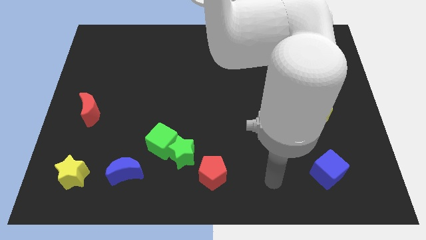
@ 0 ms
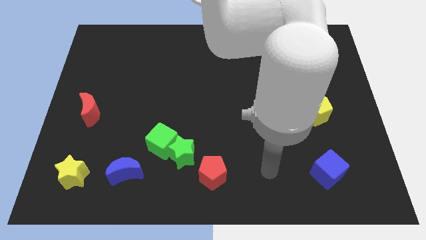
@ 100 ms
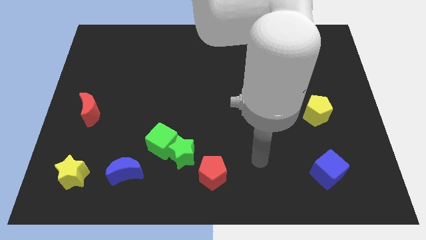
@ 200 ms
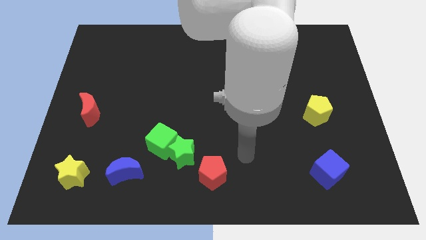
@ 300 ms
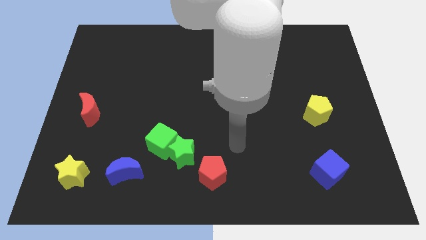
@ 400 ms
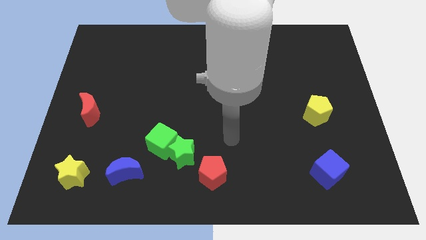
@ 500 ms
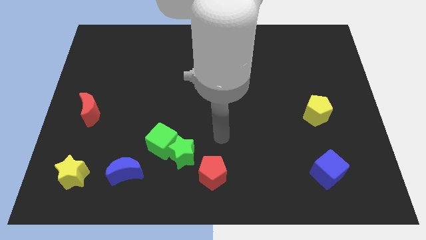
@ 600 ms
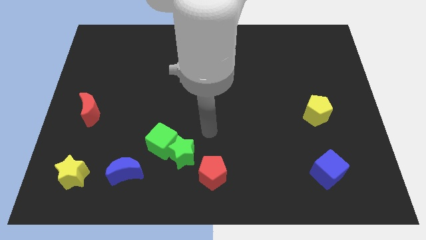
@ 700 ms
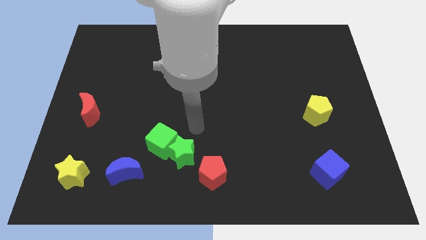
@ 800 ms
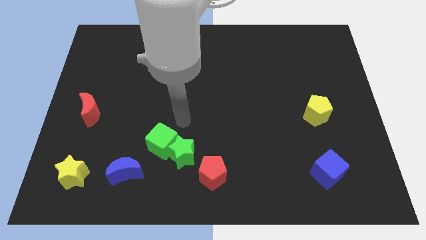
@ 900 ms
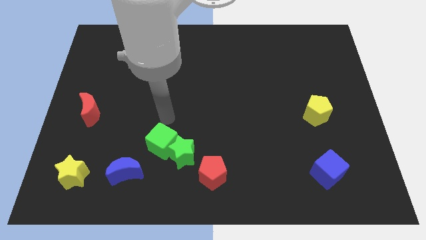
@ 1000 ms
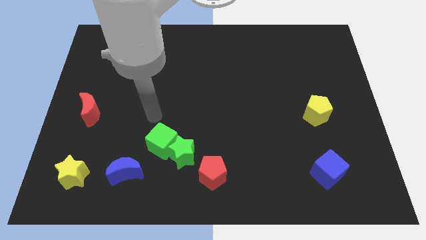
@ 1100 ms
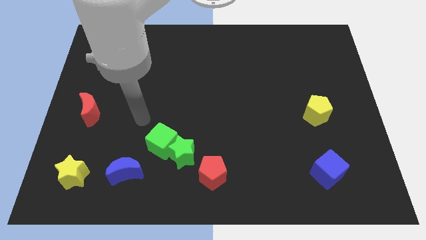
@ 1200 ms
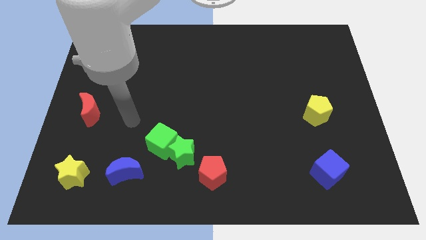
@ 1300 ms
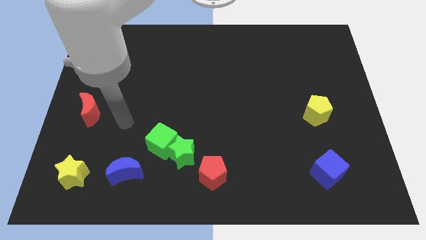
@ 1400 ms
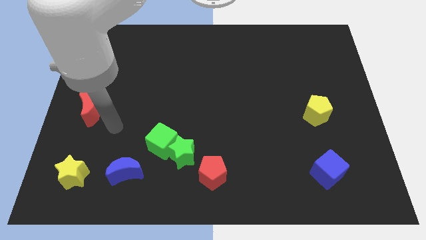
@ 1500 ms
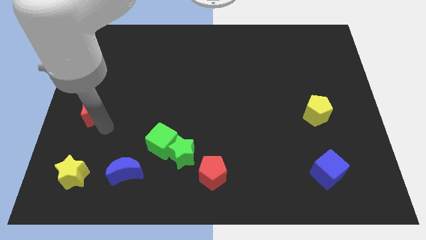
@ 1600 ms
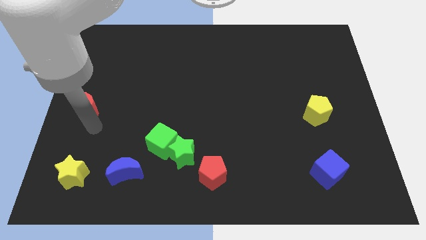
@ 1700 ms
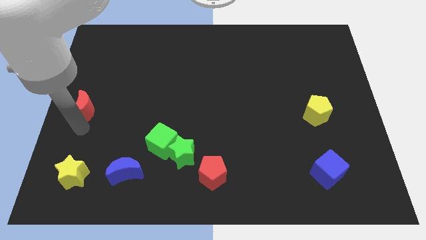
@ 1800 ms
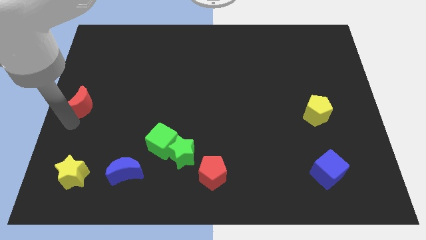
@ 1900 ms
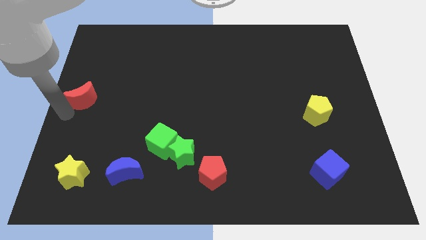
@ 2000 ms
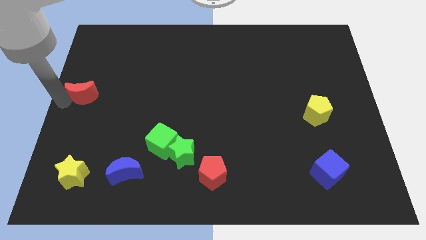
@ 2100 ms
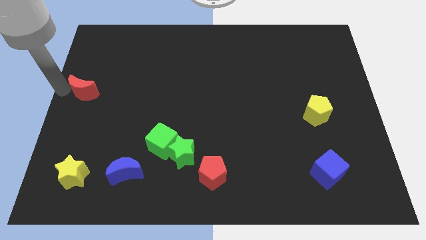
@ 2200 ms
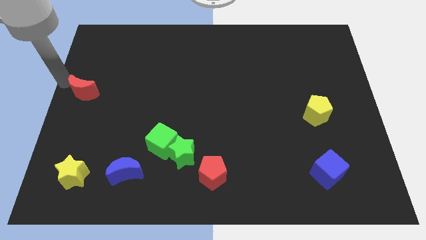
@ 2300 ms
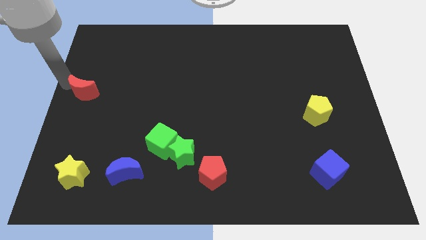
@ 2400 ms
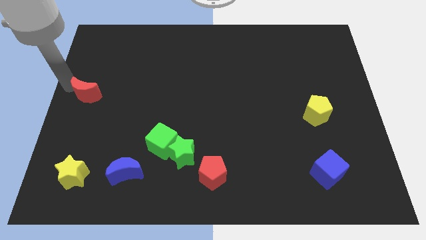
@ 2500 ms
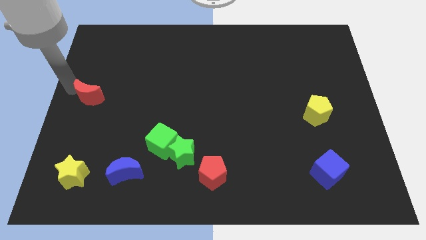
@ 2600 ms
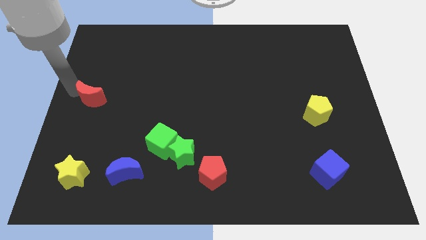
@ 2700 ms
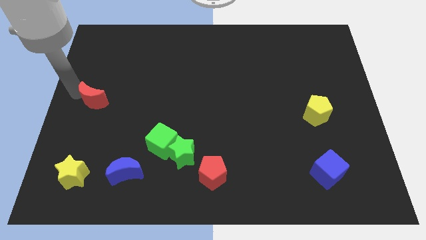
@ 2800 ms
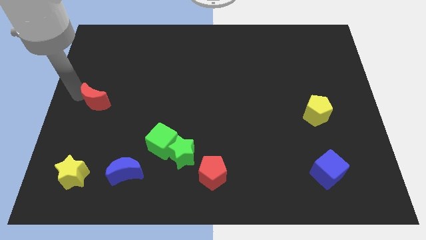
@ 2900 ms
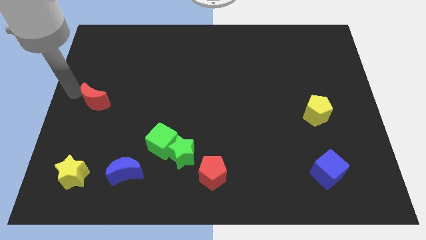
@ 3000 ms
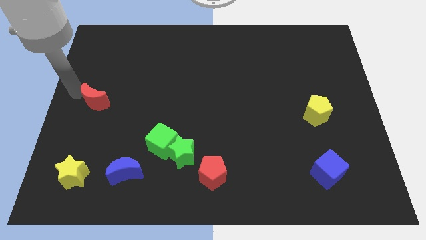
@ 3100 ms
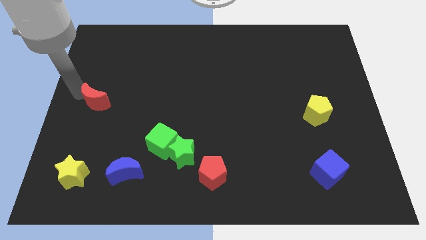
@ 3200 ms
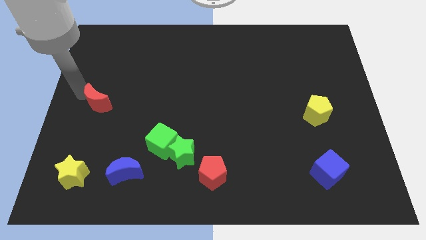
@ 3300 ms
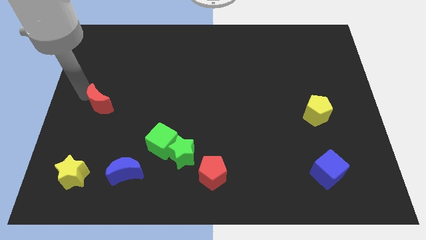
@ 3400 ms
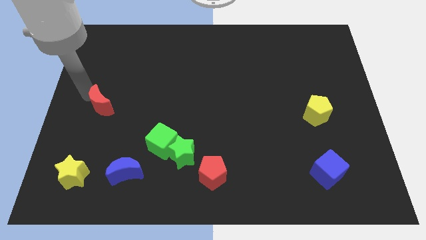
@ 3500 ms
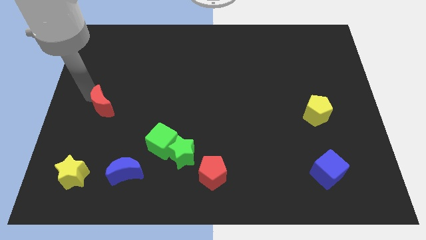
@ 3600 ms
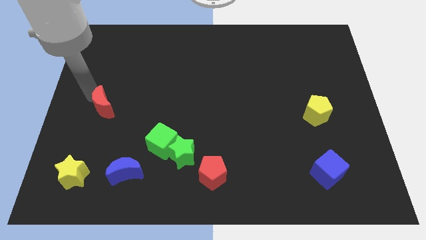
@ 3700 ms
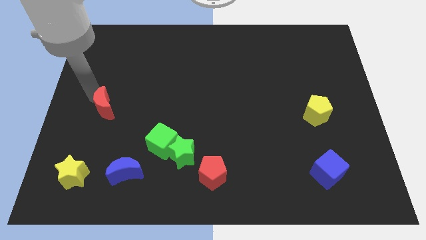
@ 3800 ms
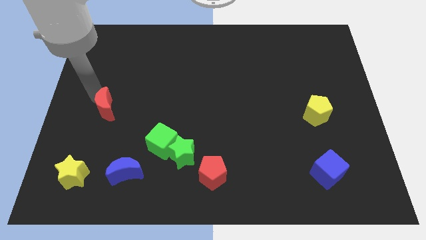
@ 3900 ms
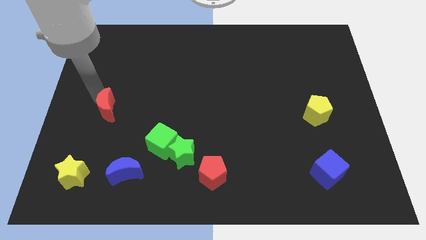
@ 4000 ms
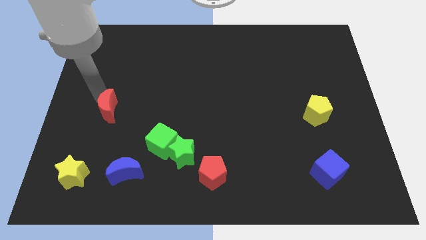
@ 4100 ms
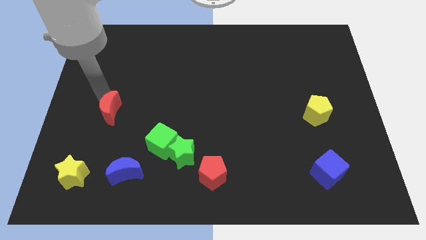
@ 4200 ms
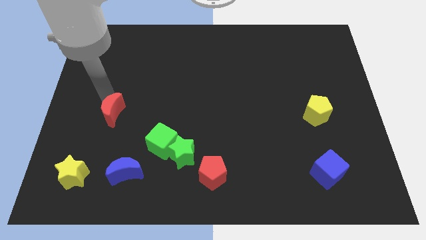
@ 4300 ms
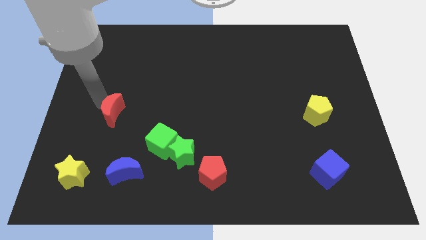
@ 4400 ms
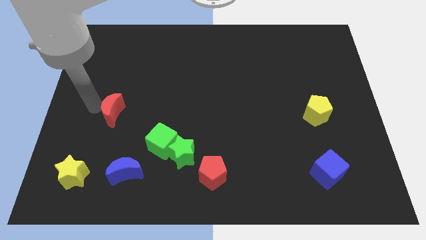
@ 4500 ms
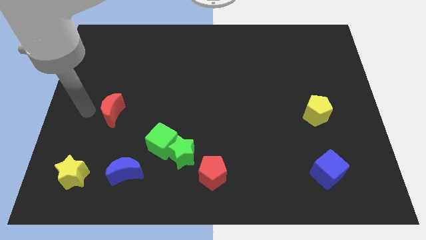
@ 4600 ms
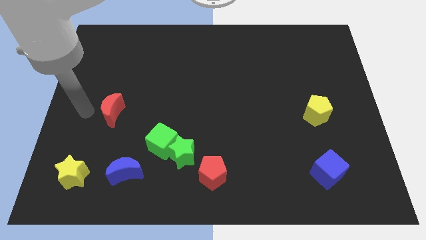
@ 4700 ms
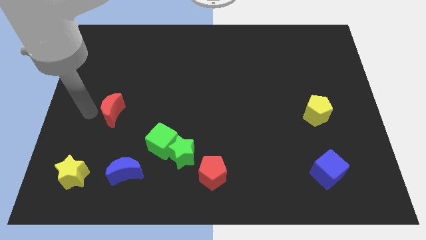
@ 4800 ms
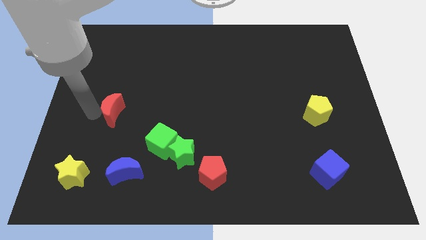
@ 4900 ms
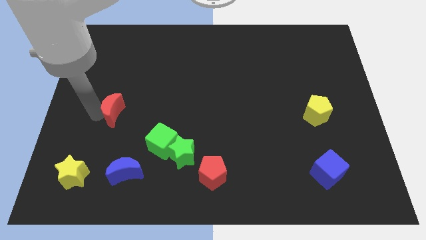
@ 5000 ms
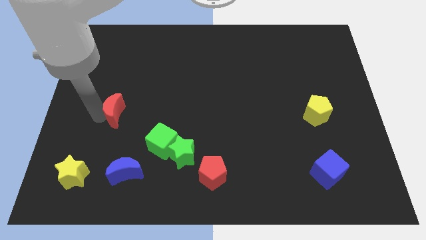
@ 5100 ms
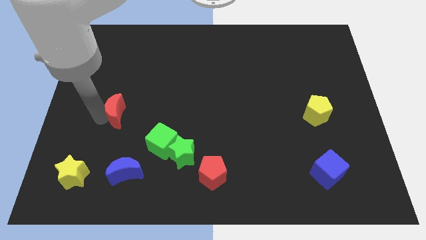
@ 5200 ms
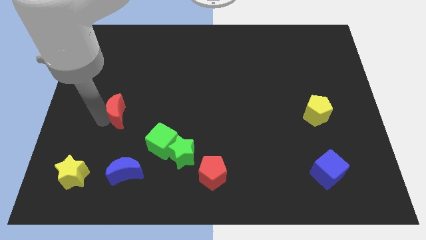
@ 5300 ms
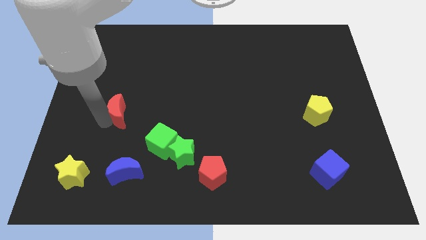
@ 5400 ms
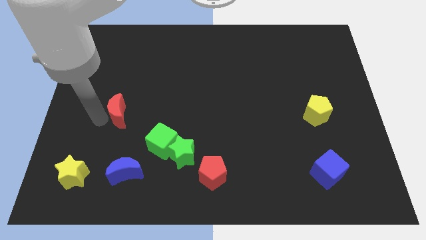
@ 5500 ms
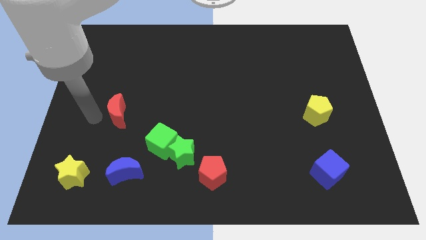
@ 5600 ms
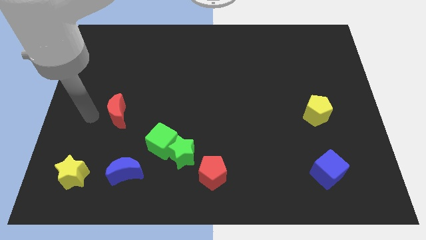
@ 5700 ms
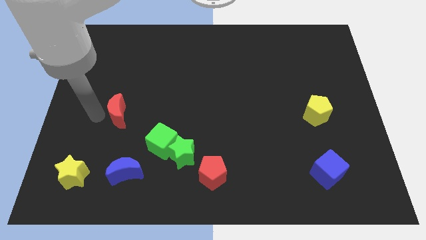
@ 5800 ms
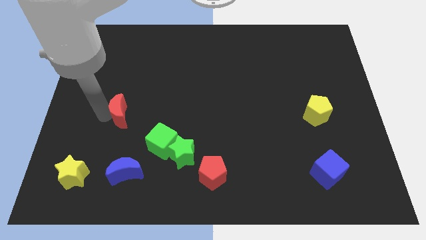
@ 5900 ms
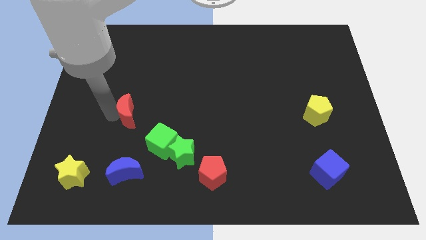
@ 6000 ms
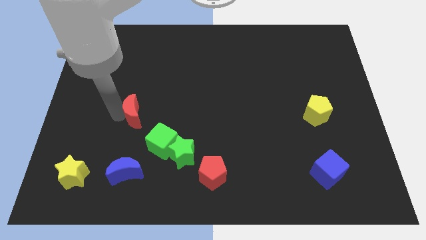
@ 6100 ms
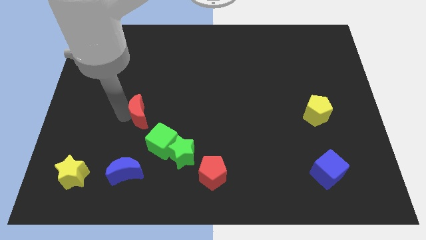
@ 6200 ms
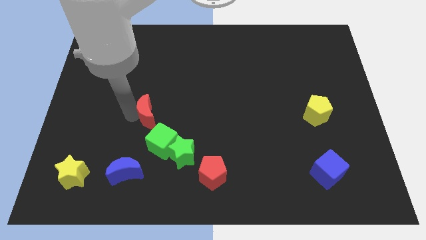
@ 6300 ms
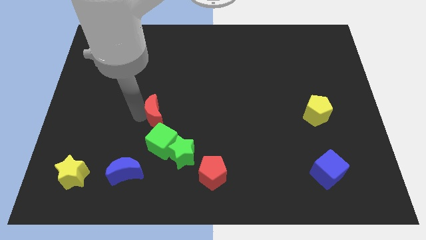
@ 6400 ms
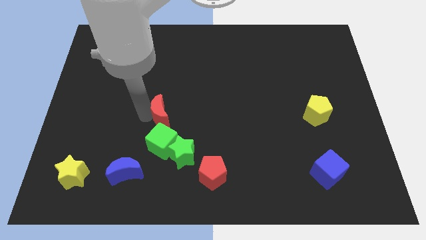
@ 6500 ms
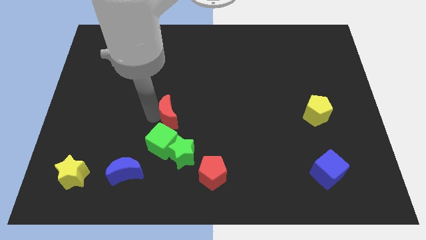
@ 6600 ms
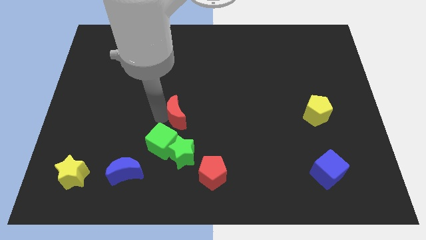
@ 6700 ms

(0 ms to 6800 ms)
slide the red moon to the right

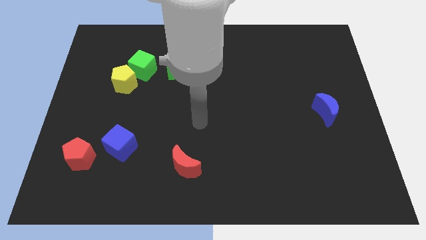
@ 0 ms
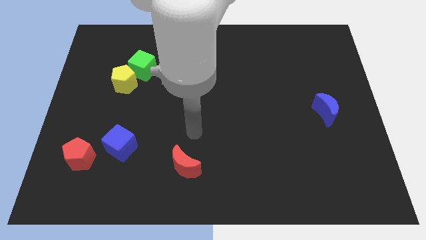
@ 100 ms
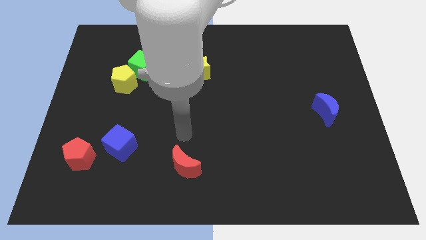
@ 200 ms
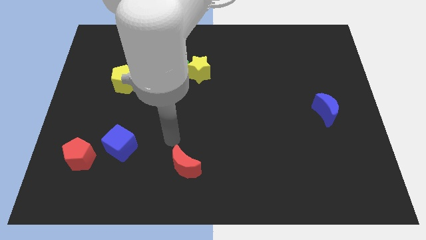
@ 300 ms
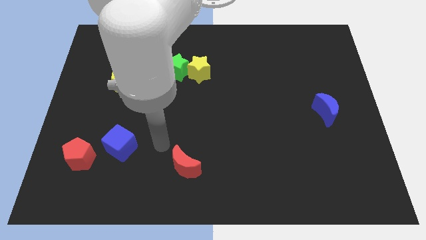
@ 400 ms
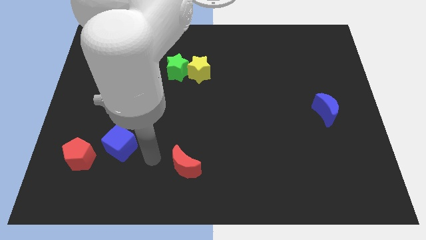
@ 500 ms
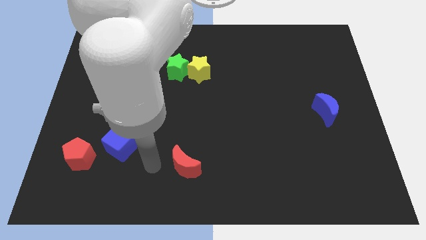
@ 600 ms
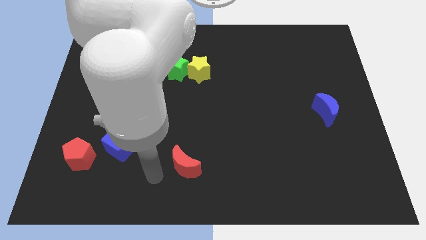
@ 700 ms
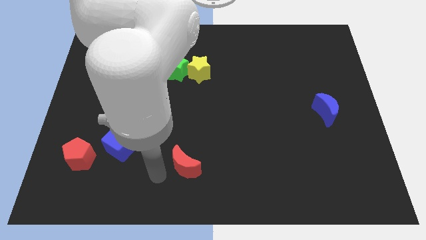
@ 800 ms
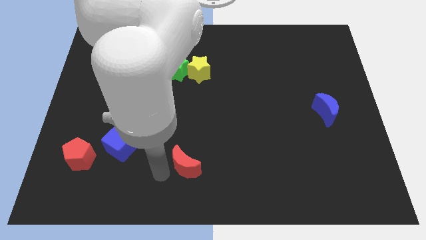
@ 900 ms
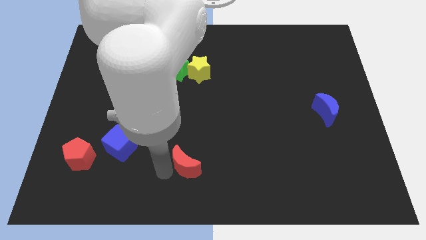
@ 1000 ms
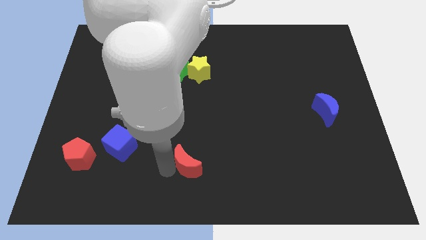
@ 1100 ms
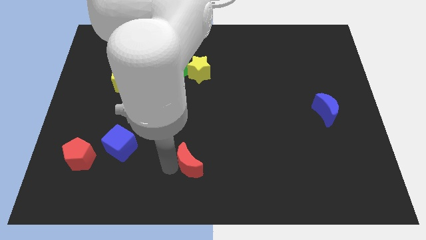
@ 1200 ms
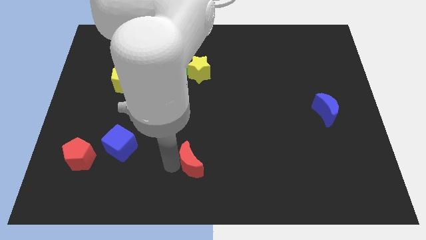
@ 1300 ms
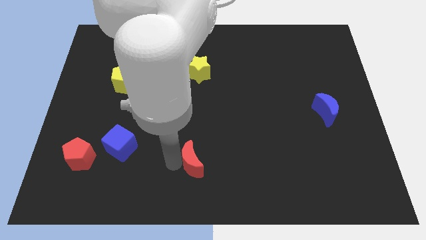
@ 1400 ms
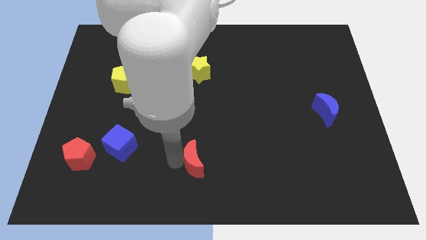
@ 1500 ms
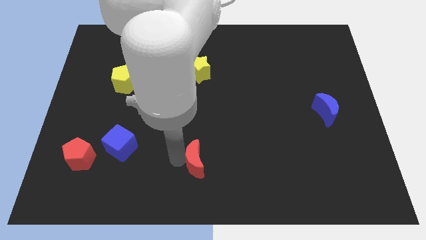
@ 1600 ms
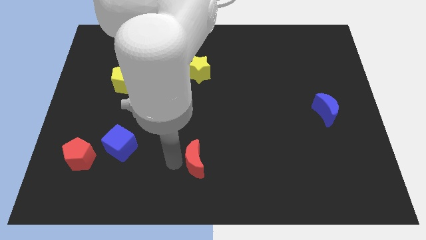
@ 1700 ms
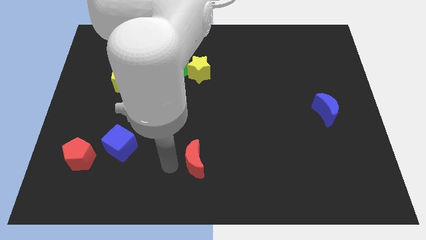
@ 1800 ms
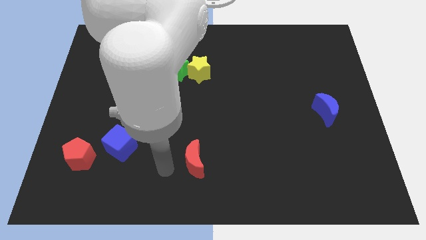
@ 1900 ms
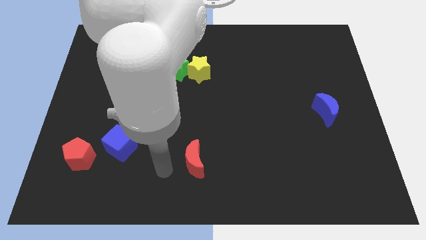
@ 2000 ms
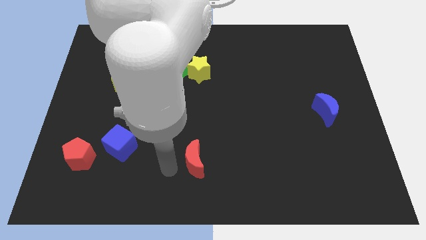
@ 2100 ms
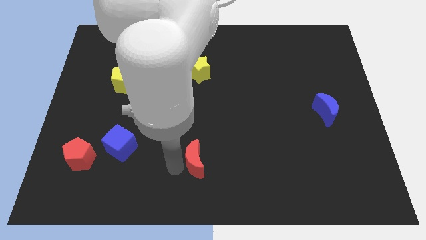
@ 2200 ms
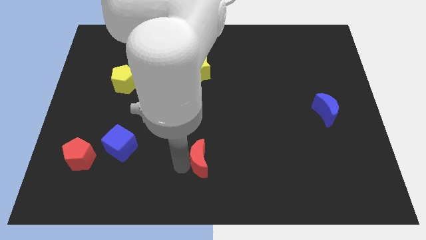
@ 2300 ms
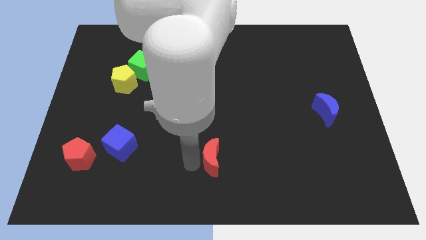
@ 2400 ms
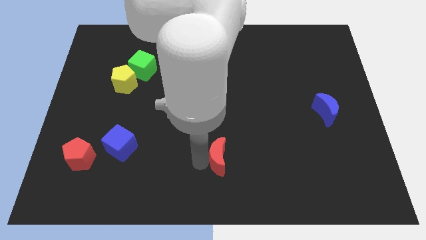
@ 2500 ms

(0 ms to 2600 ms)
slightly slide the red moon right
